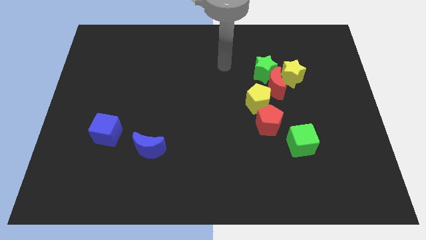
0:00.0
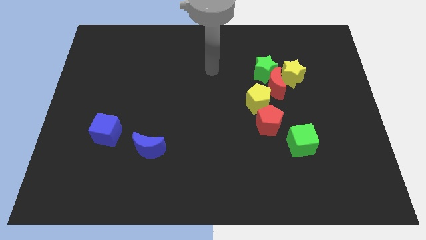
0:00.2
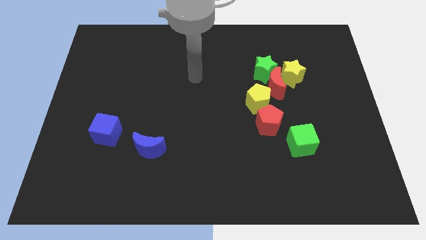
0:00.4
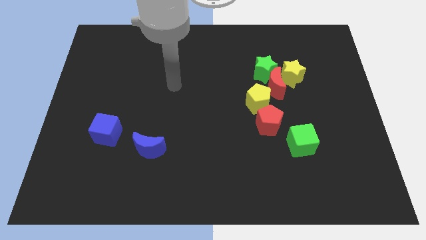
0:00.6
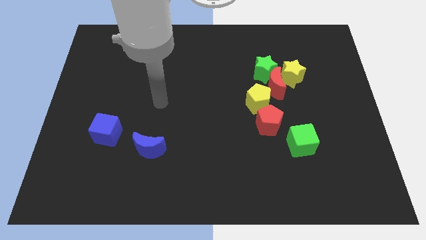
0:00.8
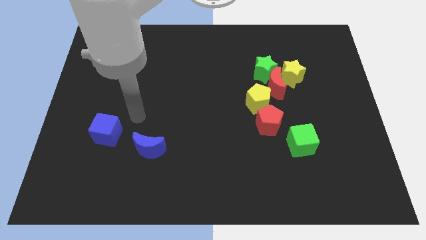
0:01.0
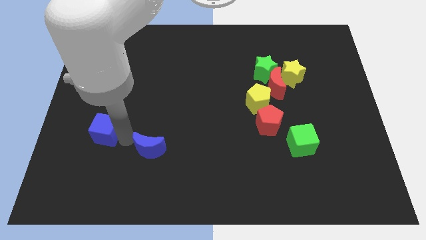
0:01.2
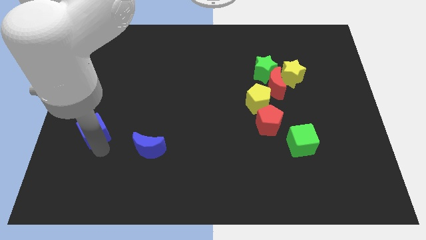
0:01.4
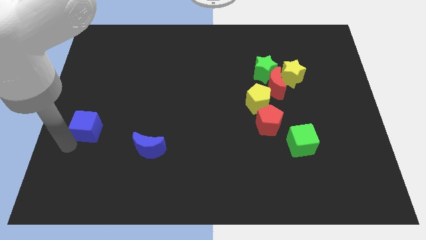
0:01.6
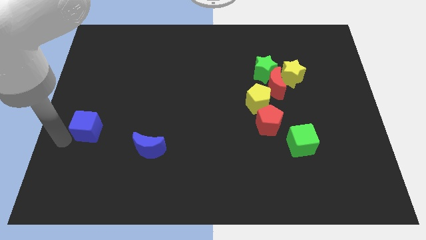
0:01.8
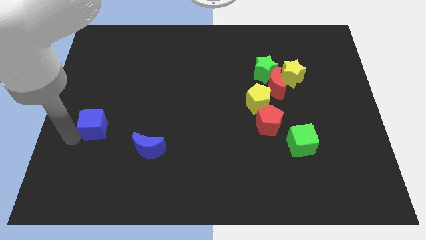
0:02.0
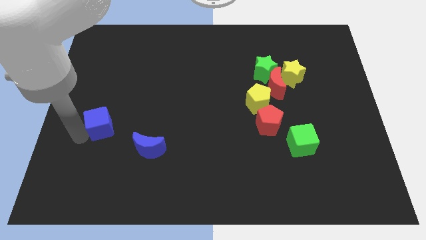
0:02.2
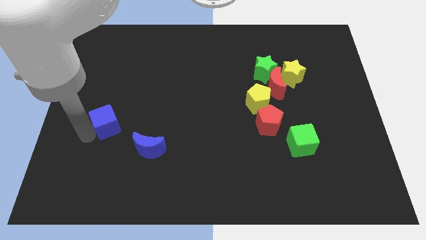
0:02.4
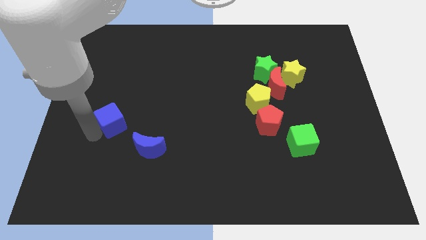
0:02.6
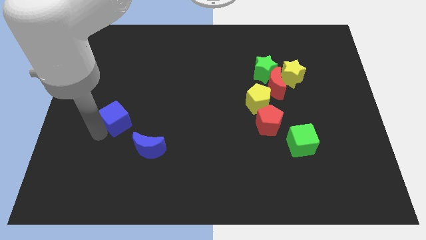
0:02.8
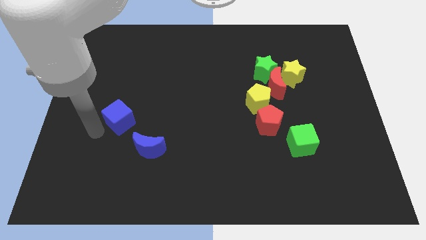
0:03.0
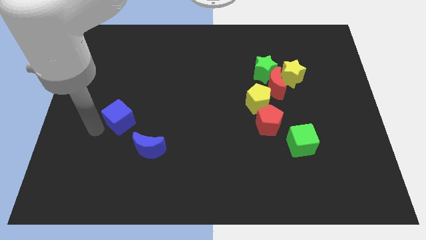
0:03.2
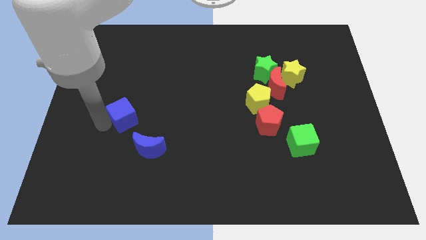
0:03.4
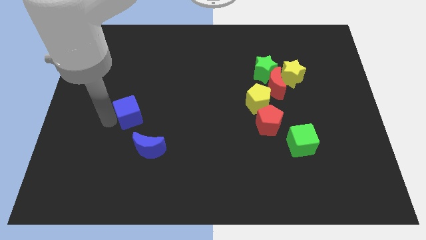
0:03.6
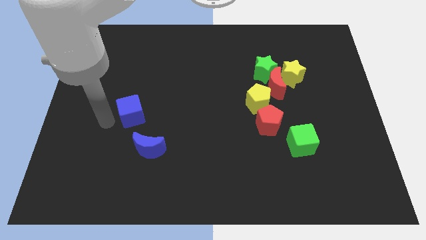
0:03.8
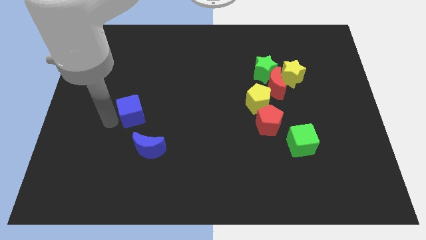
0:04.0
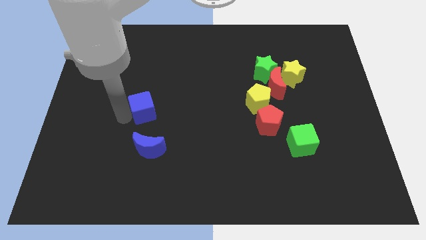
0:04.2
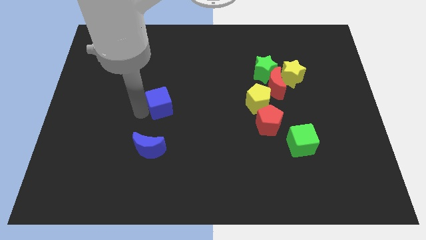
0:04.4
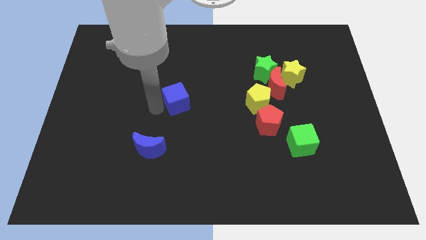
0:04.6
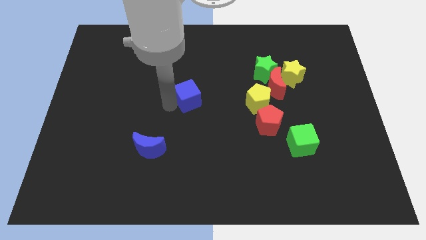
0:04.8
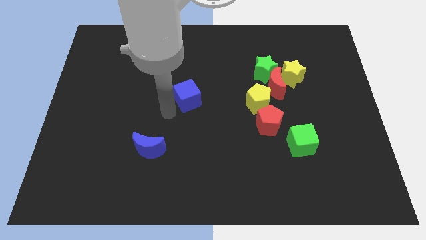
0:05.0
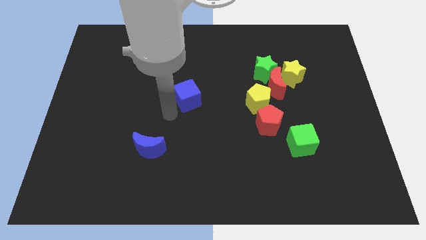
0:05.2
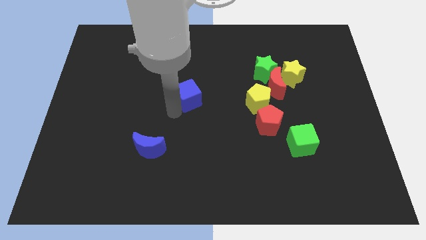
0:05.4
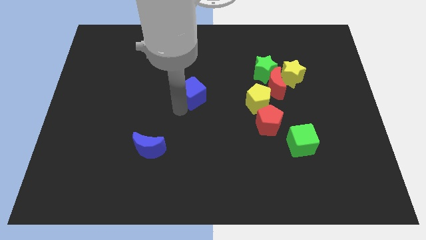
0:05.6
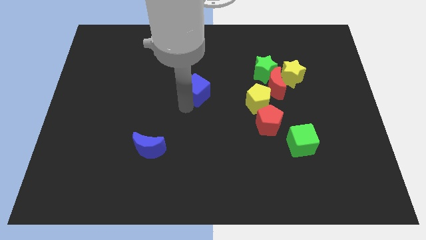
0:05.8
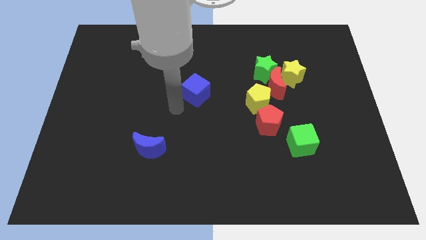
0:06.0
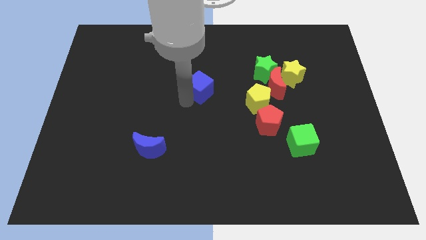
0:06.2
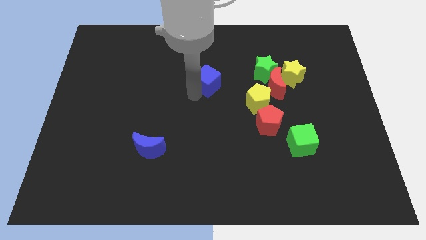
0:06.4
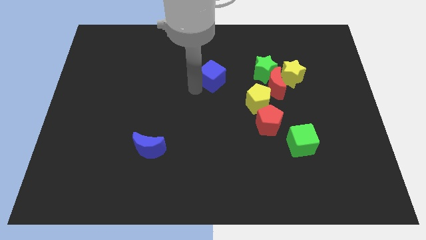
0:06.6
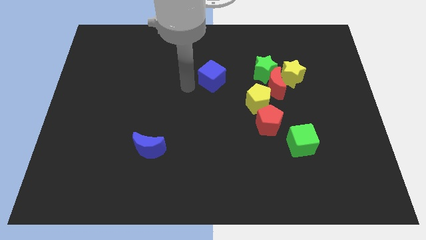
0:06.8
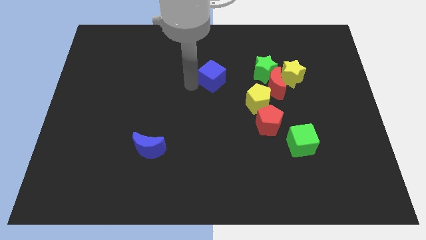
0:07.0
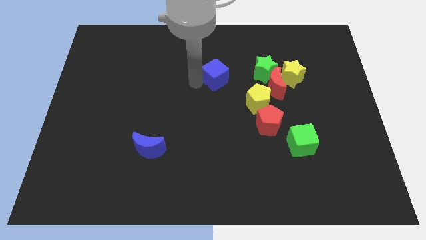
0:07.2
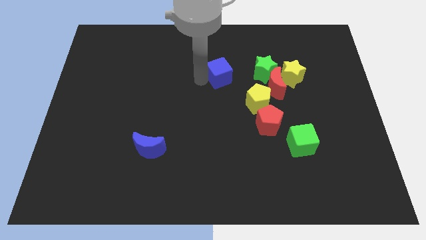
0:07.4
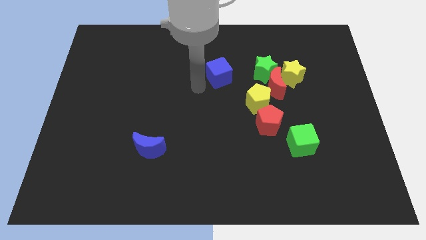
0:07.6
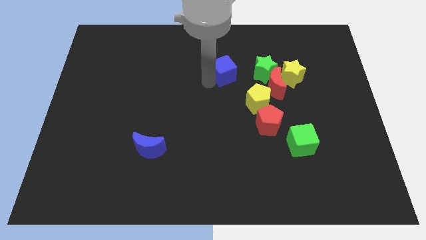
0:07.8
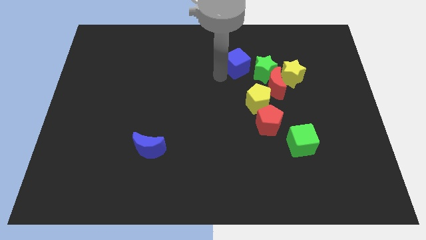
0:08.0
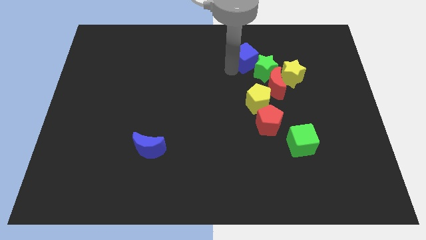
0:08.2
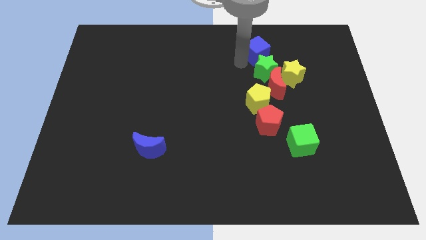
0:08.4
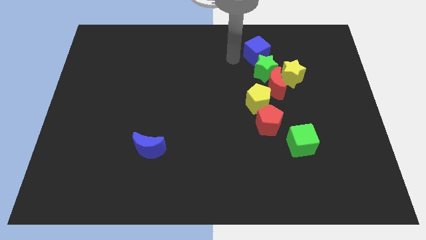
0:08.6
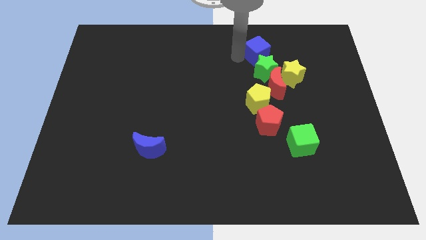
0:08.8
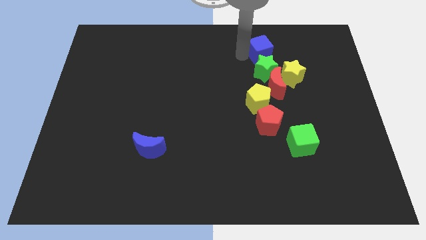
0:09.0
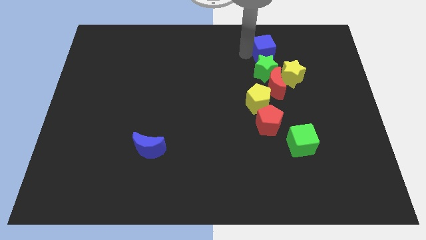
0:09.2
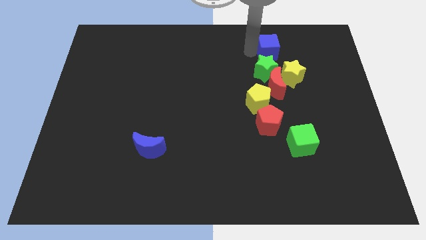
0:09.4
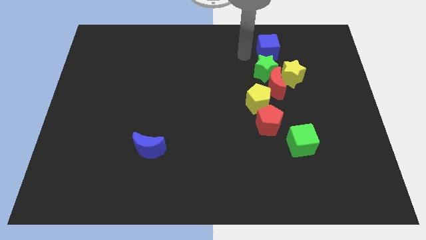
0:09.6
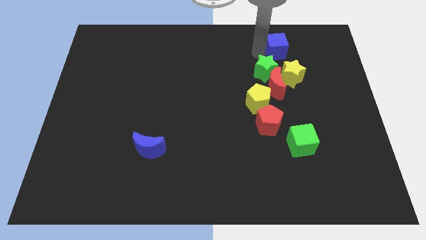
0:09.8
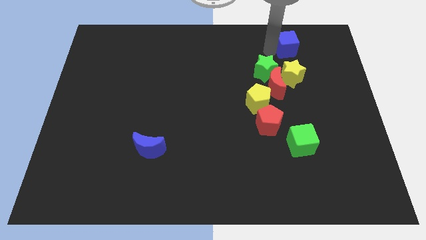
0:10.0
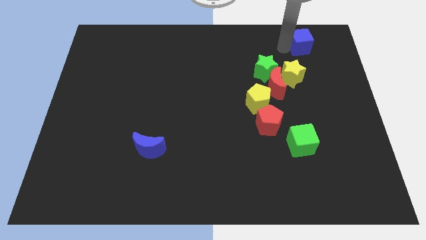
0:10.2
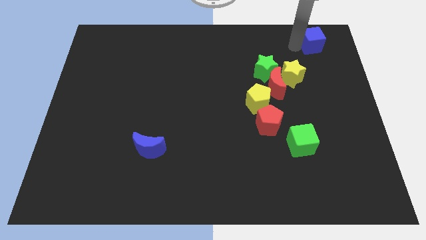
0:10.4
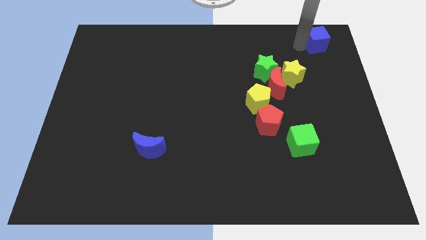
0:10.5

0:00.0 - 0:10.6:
move the blue cube to the upper right corner

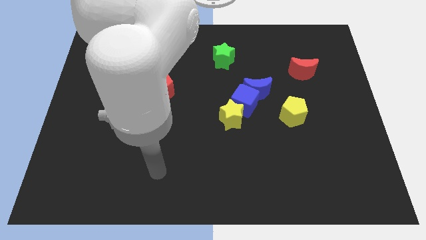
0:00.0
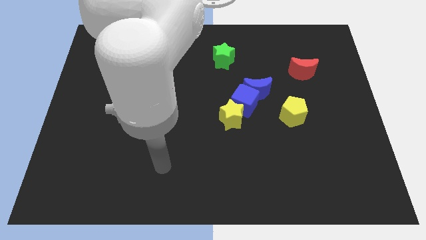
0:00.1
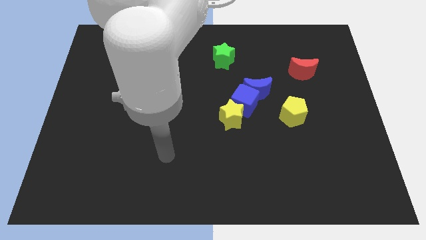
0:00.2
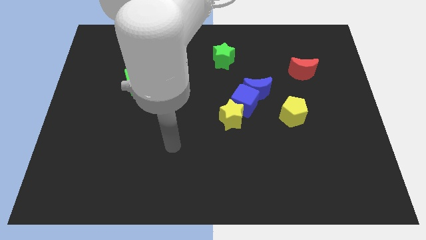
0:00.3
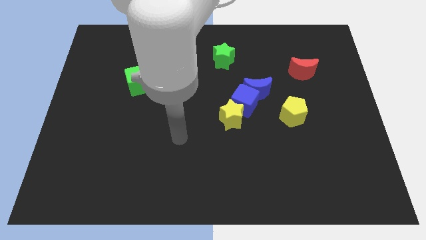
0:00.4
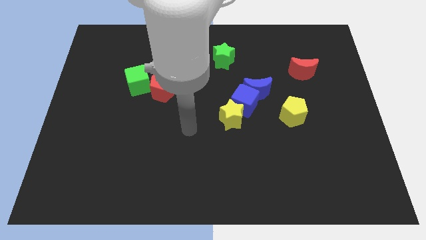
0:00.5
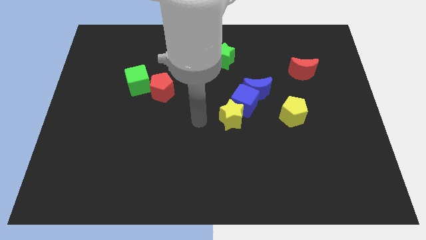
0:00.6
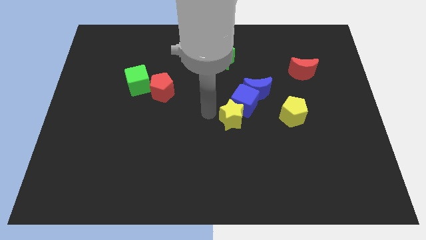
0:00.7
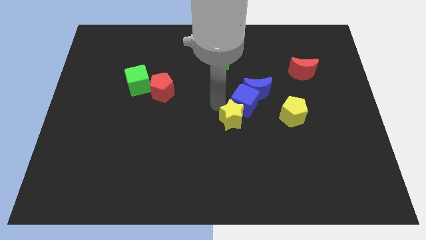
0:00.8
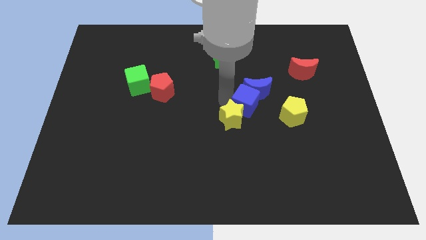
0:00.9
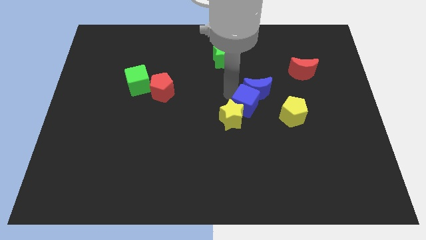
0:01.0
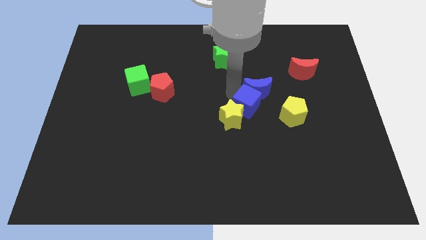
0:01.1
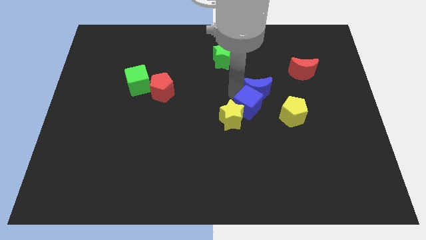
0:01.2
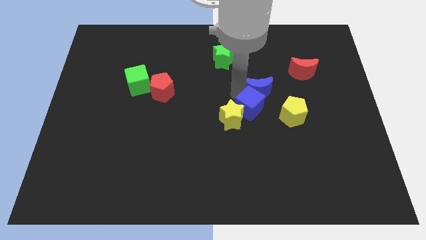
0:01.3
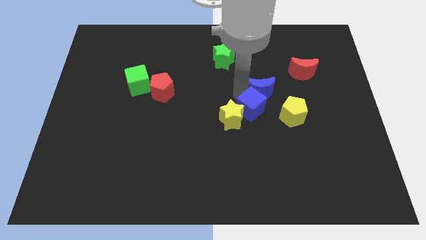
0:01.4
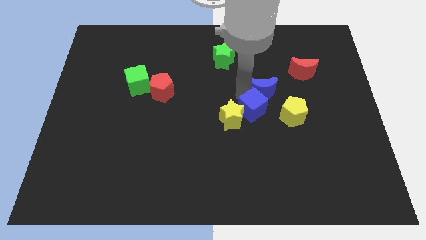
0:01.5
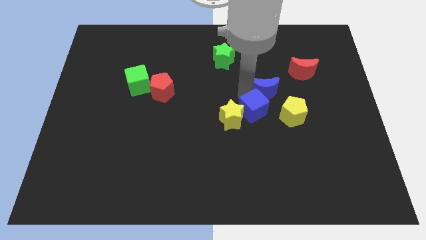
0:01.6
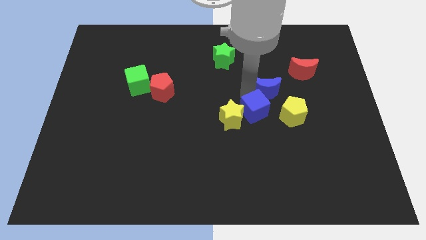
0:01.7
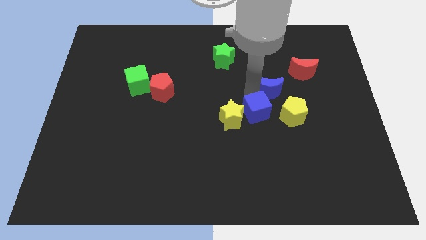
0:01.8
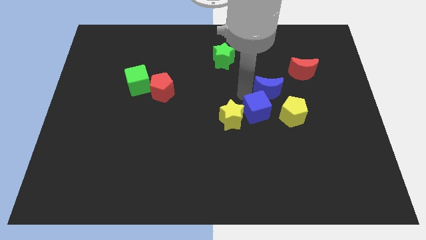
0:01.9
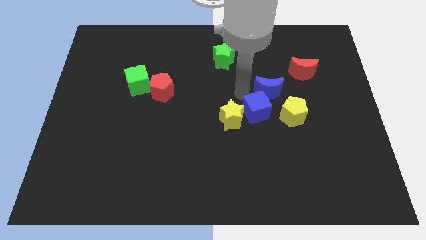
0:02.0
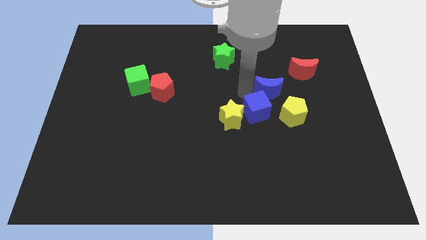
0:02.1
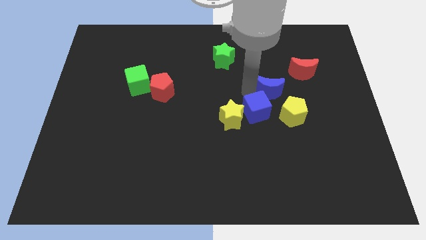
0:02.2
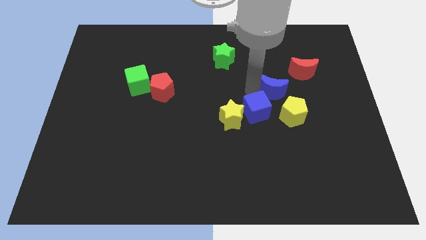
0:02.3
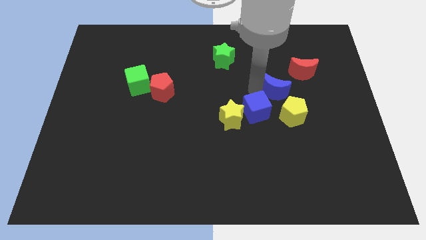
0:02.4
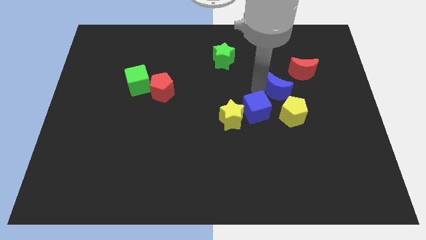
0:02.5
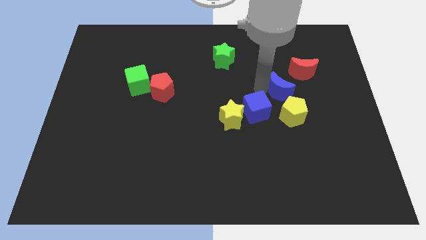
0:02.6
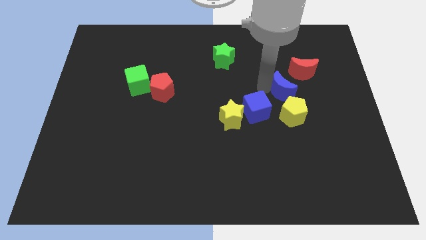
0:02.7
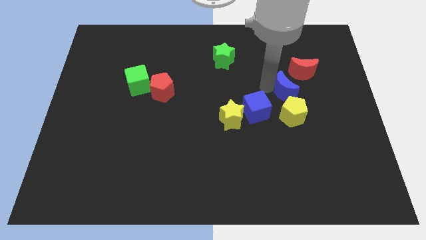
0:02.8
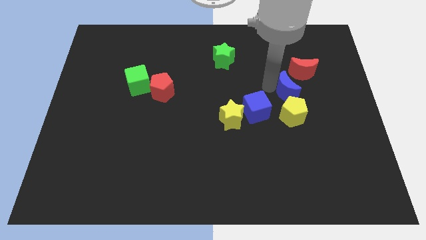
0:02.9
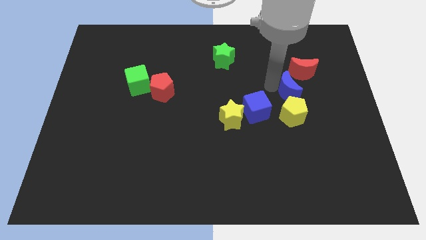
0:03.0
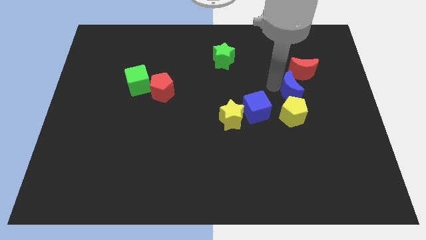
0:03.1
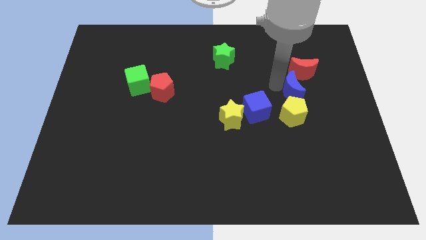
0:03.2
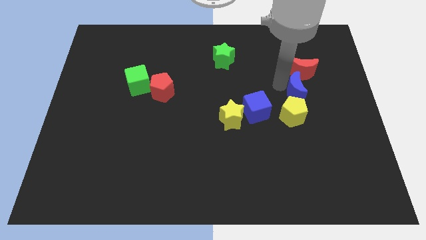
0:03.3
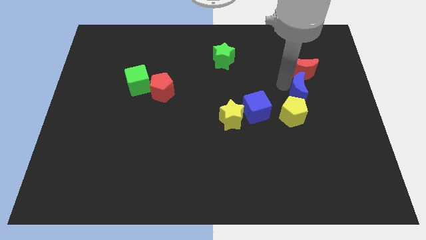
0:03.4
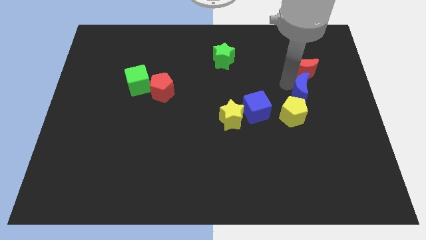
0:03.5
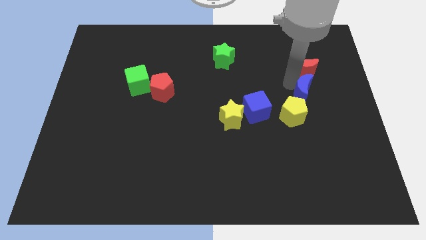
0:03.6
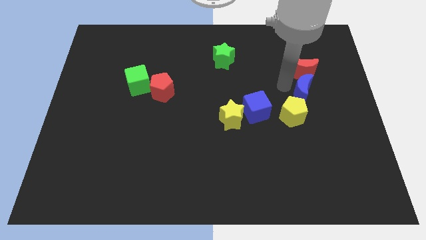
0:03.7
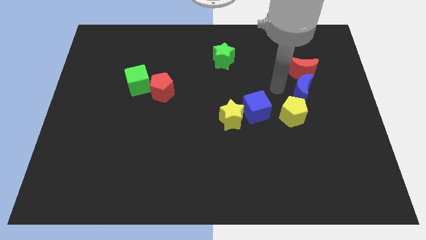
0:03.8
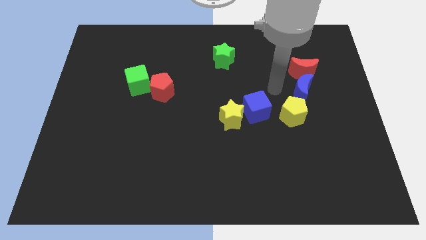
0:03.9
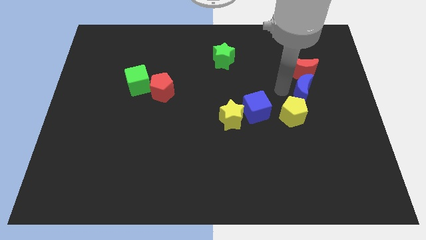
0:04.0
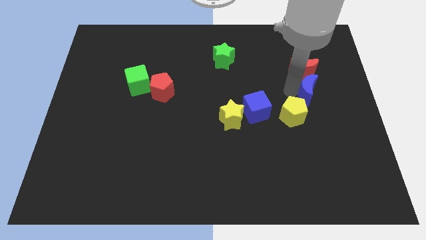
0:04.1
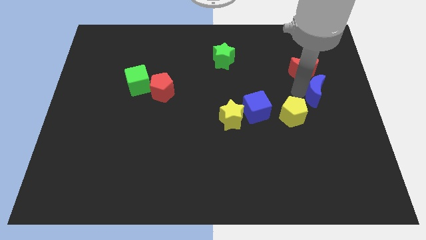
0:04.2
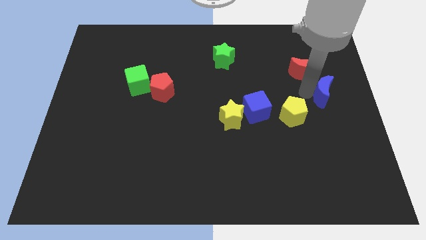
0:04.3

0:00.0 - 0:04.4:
move the blue moon to the right side
